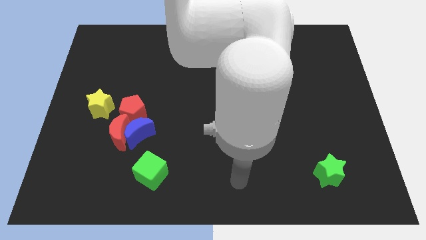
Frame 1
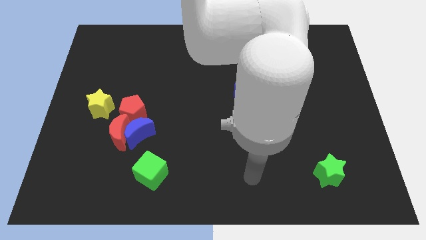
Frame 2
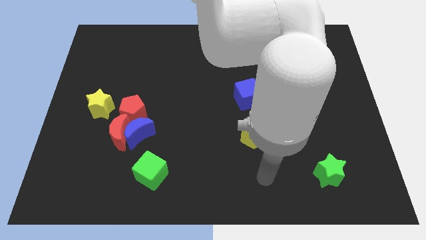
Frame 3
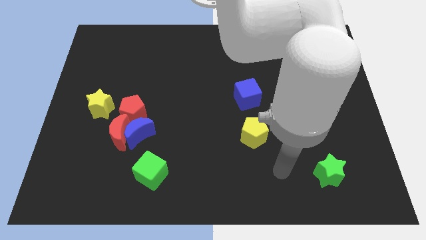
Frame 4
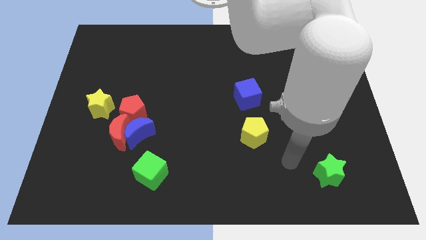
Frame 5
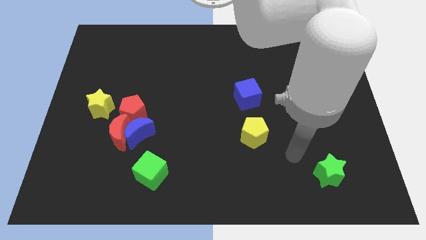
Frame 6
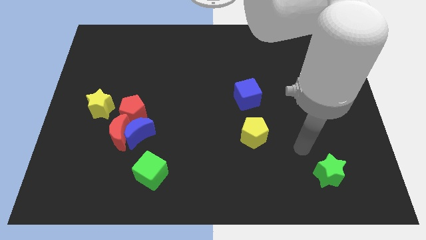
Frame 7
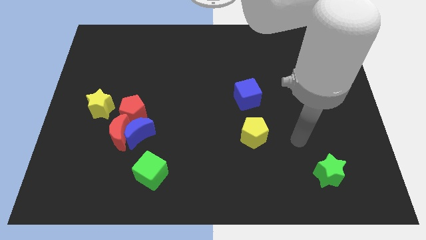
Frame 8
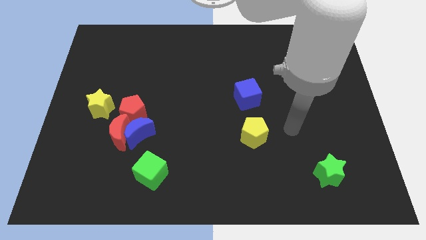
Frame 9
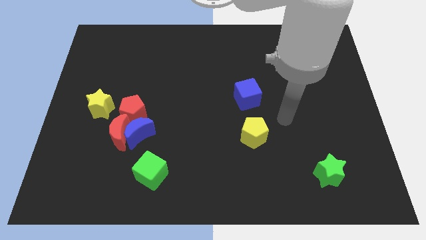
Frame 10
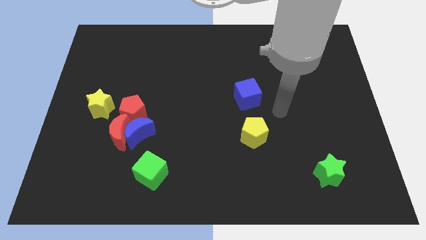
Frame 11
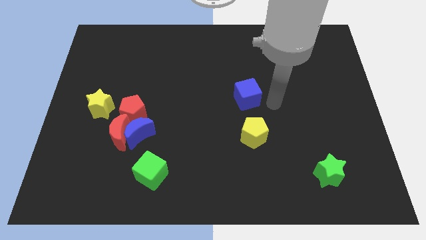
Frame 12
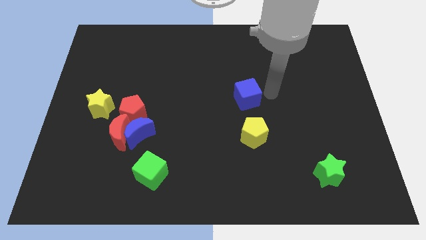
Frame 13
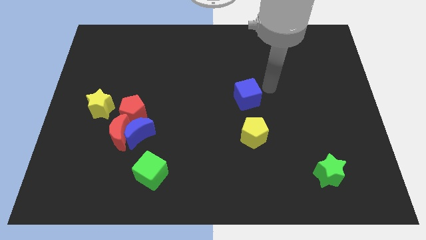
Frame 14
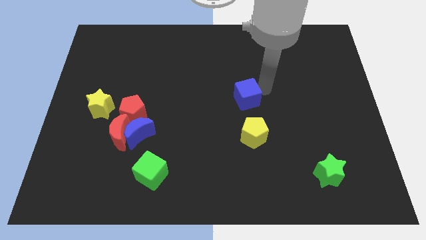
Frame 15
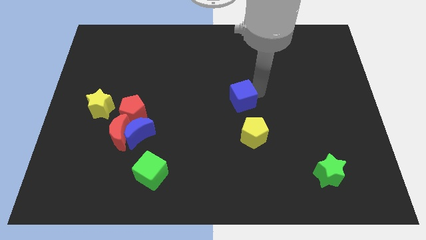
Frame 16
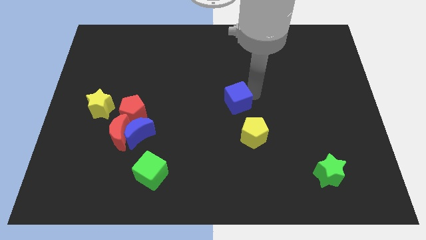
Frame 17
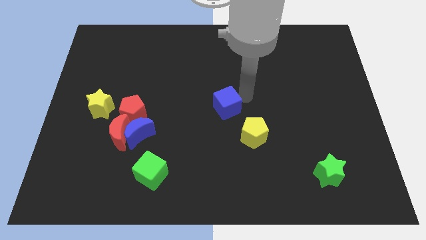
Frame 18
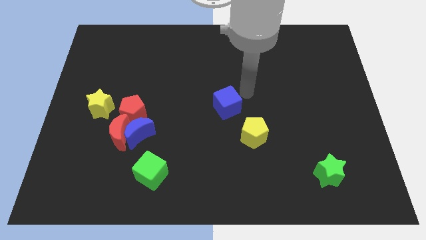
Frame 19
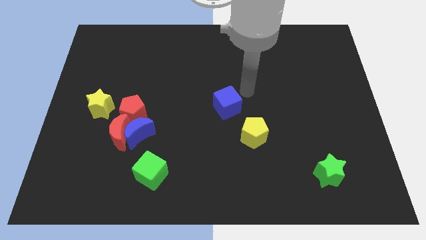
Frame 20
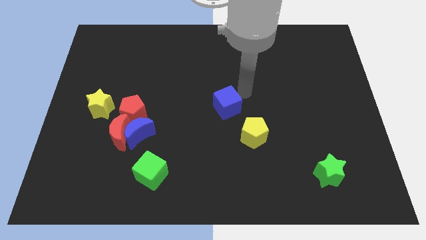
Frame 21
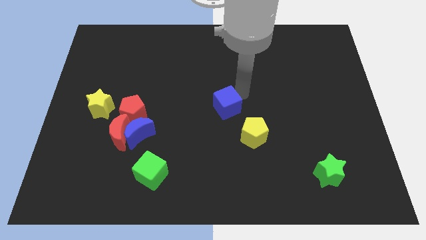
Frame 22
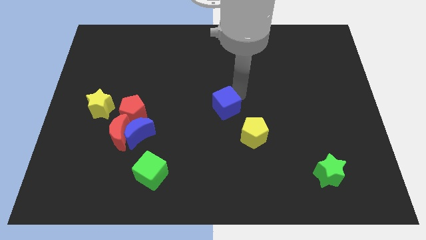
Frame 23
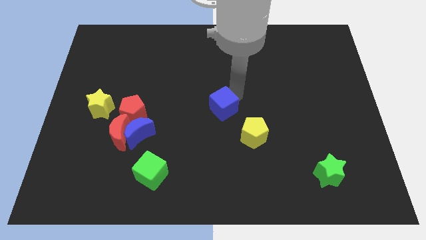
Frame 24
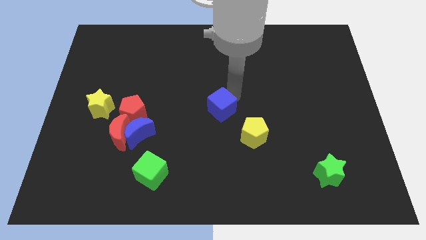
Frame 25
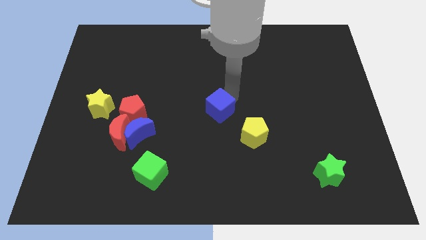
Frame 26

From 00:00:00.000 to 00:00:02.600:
slide the blue cube down and then left somewhat

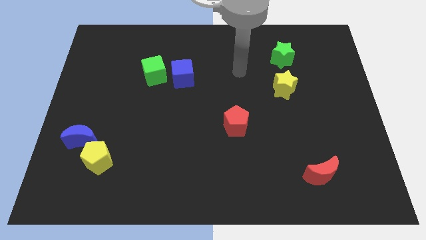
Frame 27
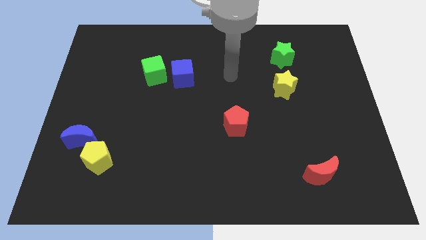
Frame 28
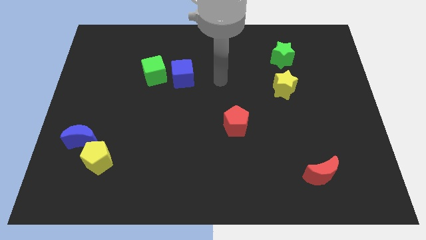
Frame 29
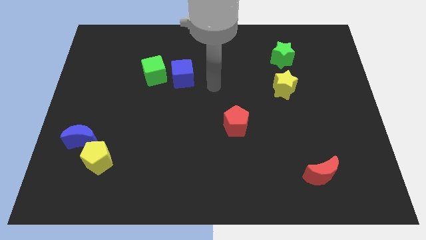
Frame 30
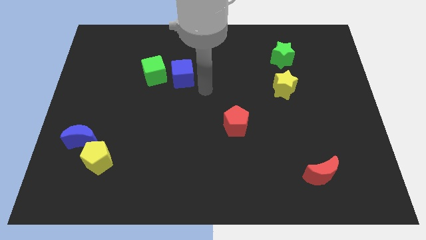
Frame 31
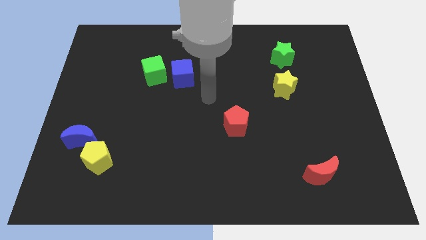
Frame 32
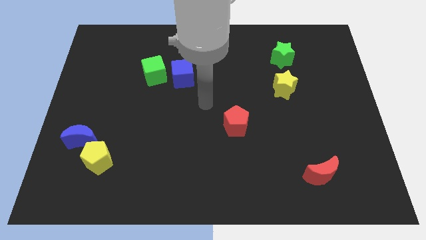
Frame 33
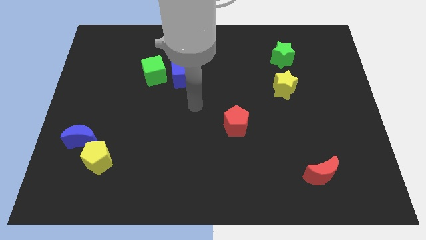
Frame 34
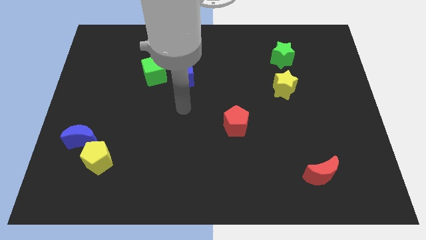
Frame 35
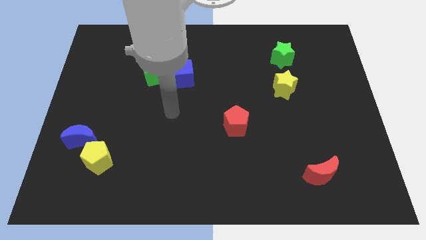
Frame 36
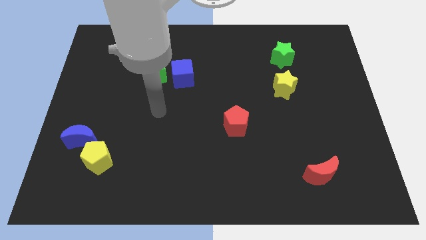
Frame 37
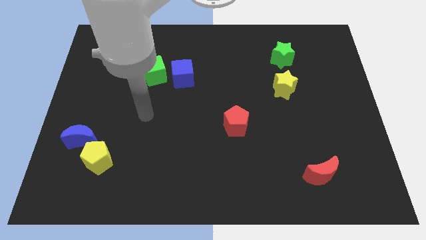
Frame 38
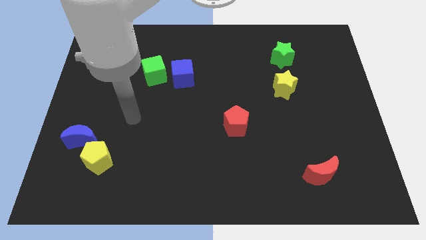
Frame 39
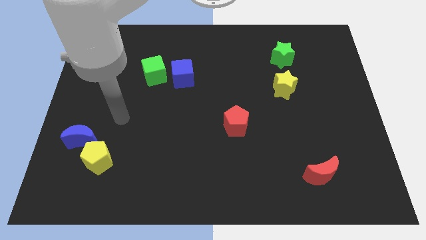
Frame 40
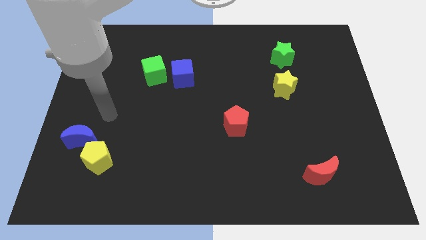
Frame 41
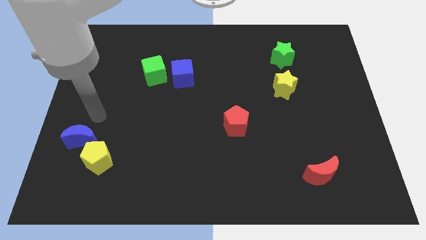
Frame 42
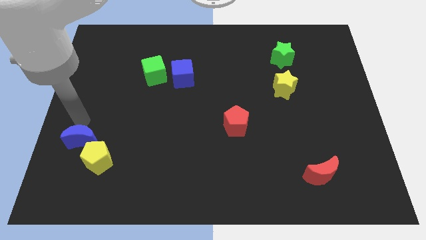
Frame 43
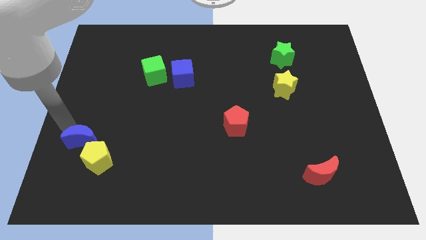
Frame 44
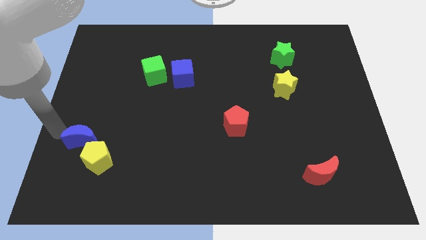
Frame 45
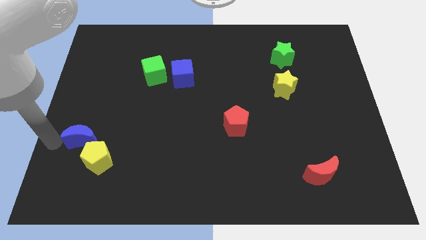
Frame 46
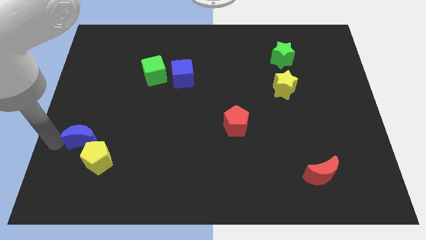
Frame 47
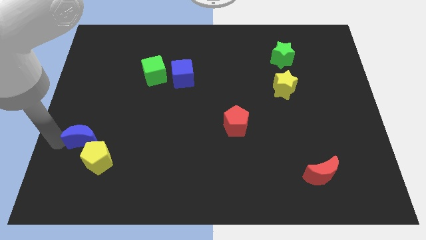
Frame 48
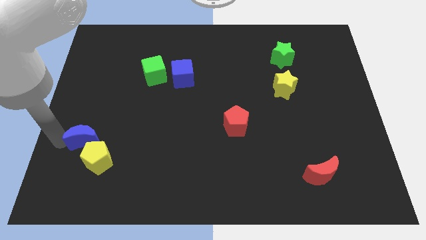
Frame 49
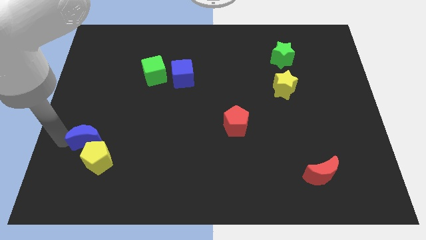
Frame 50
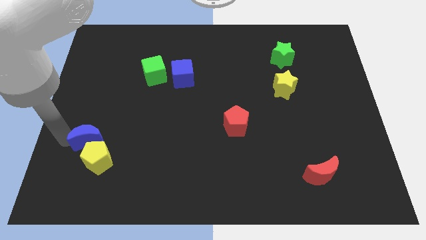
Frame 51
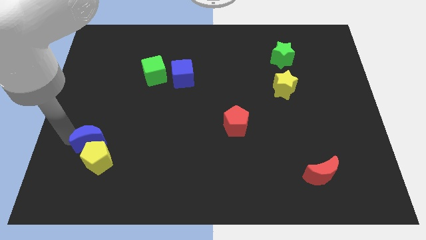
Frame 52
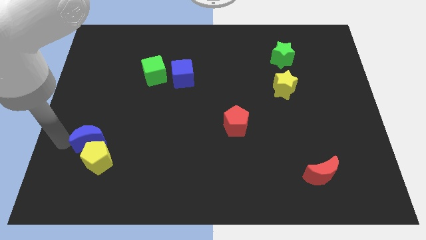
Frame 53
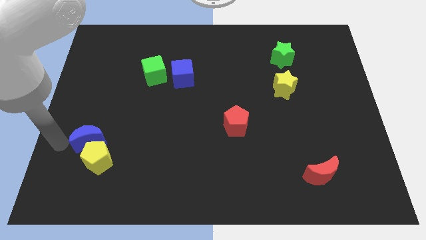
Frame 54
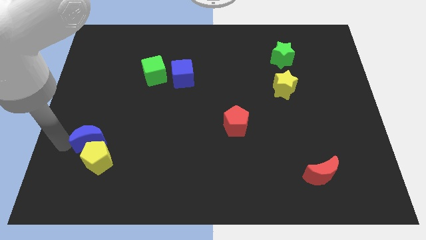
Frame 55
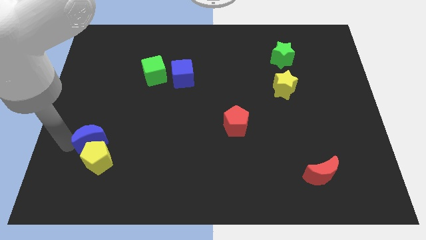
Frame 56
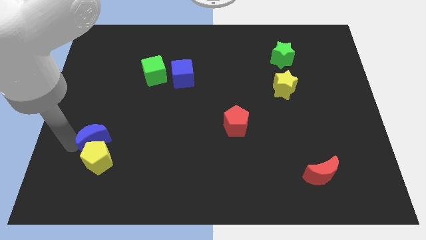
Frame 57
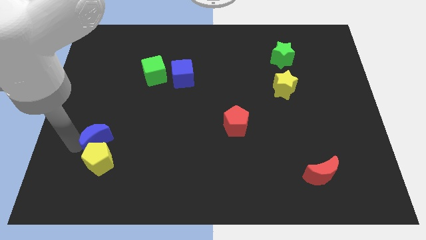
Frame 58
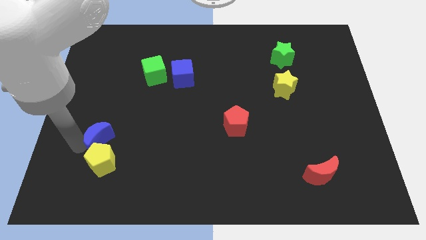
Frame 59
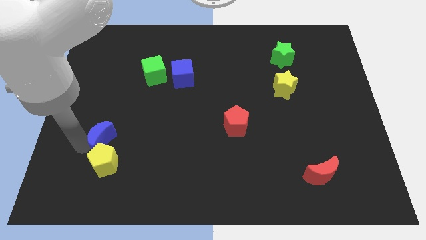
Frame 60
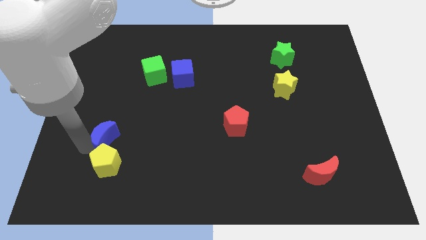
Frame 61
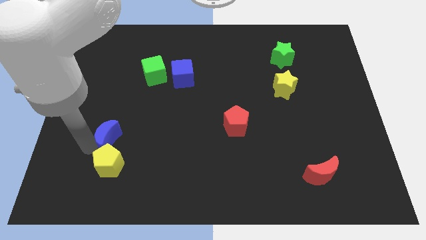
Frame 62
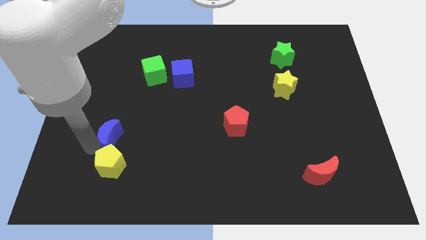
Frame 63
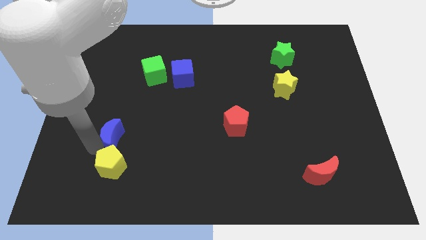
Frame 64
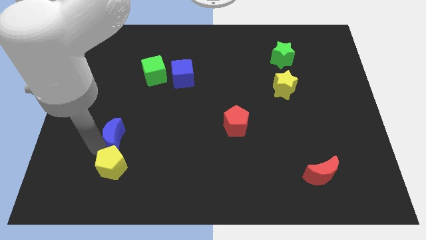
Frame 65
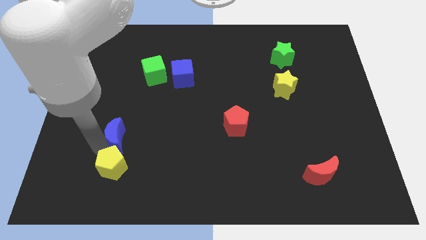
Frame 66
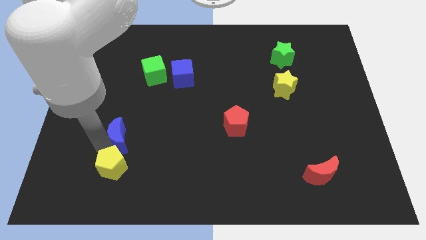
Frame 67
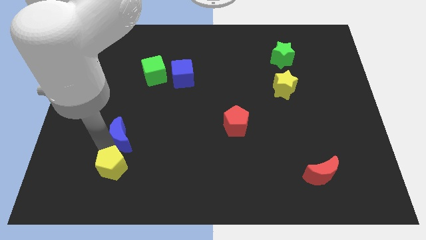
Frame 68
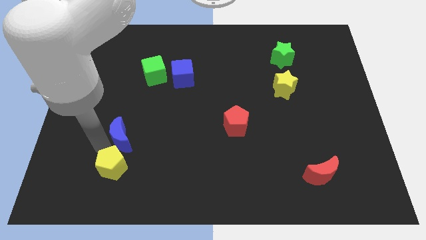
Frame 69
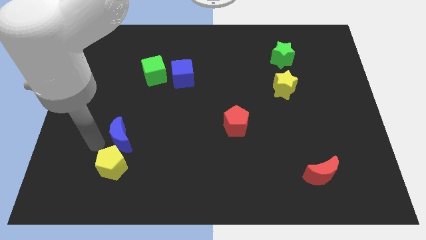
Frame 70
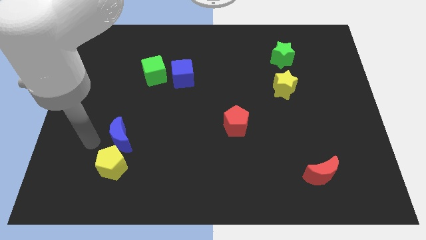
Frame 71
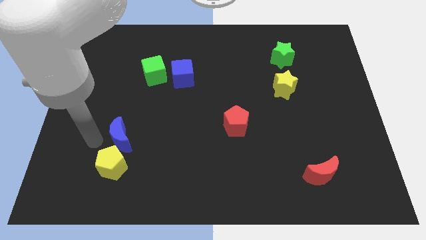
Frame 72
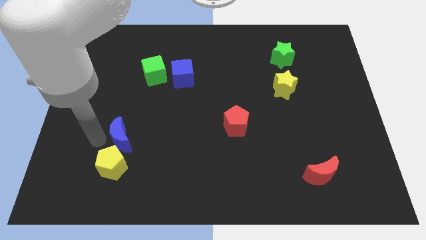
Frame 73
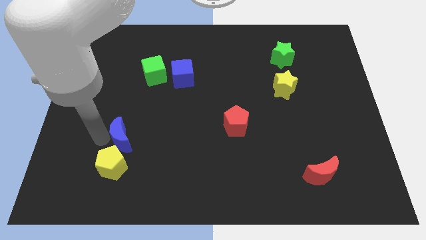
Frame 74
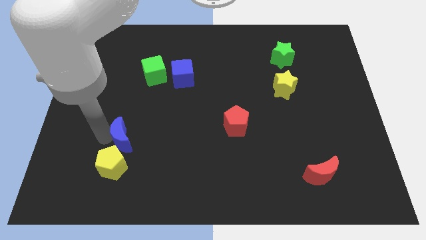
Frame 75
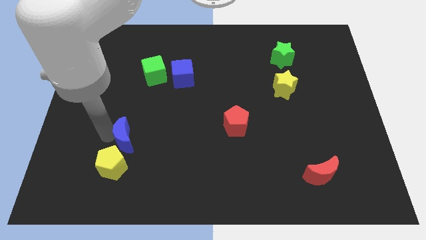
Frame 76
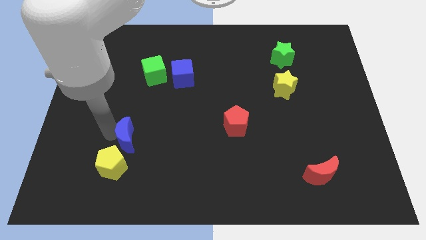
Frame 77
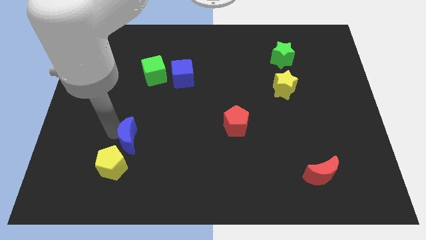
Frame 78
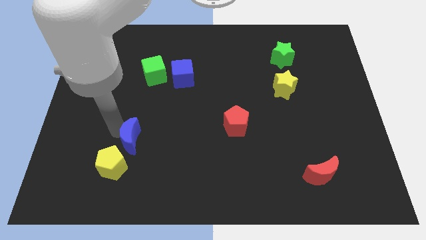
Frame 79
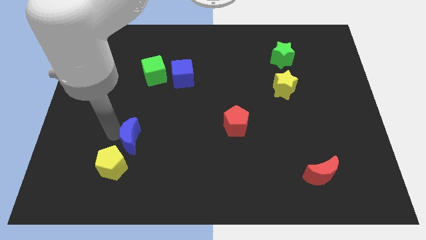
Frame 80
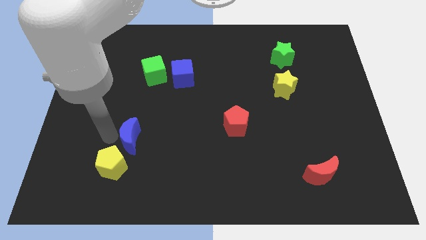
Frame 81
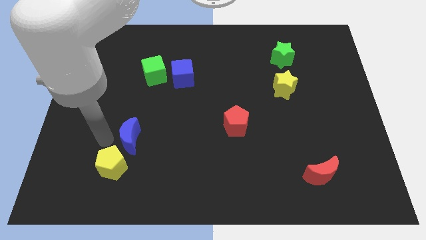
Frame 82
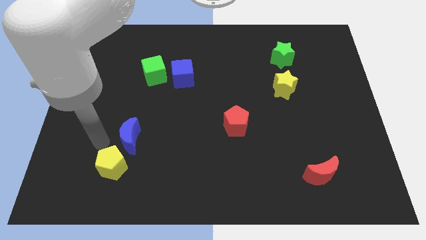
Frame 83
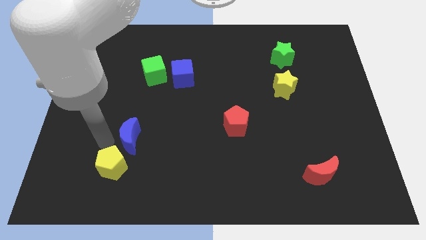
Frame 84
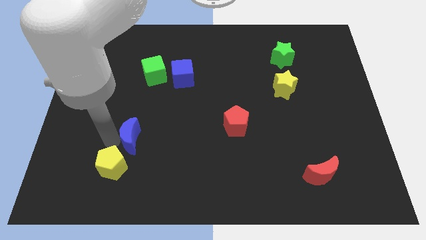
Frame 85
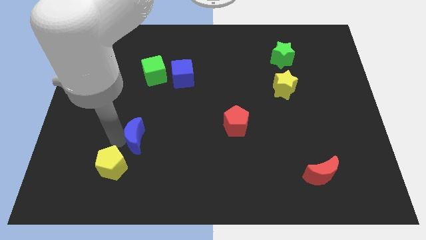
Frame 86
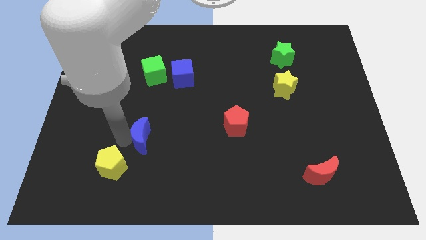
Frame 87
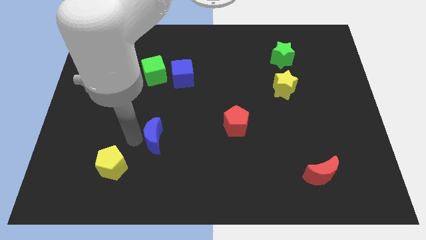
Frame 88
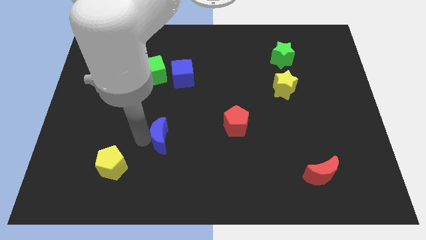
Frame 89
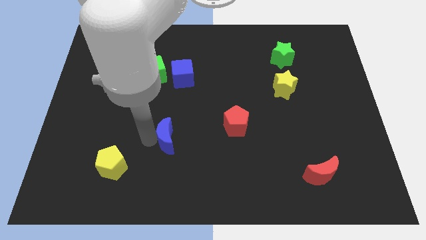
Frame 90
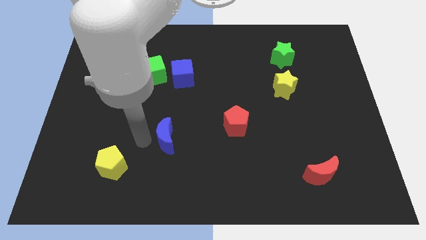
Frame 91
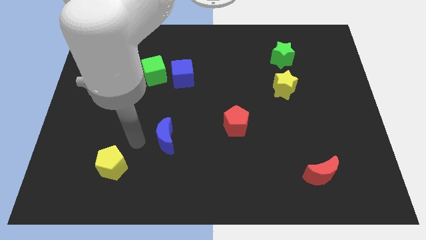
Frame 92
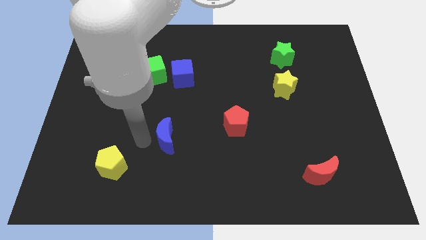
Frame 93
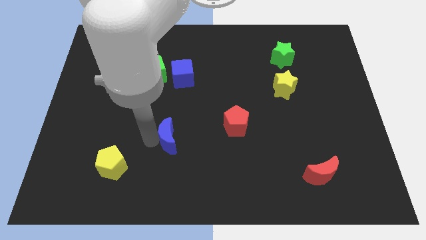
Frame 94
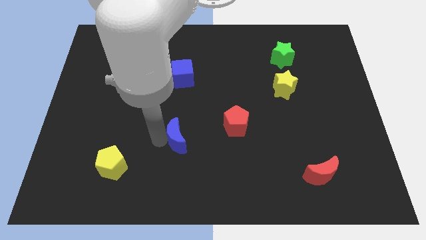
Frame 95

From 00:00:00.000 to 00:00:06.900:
slide the blue moon to the right
